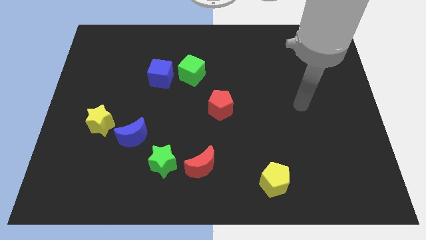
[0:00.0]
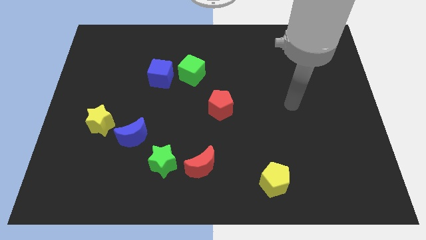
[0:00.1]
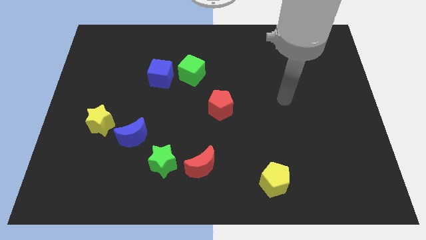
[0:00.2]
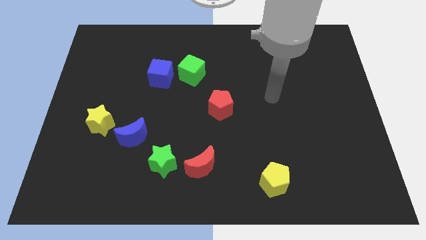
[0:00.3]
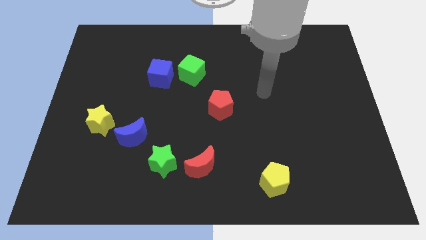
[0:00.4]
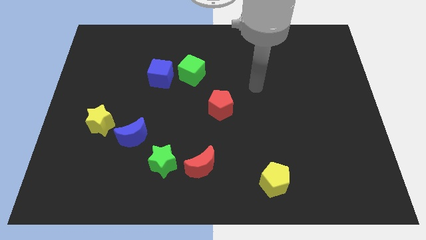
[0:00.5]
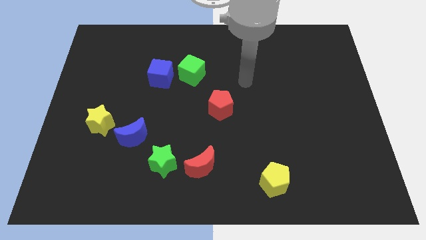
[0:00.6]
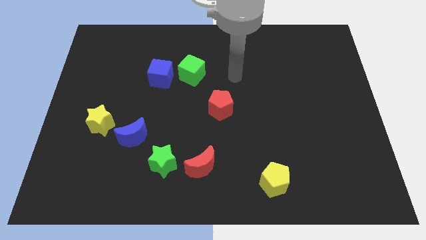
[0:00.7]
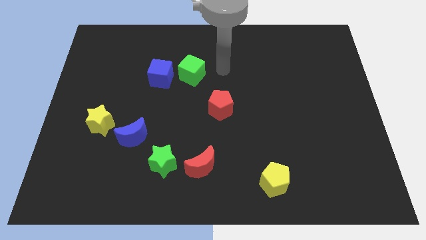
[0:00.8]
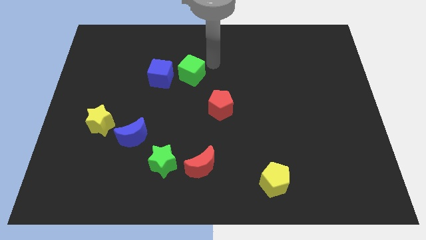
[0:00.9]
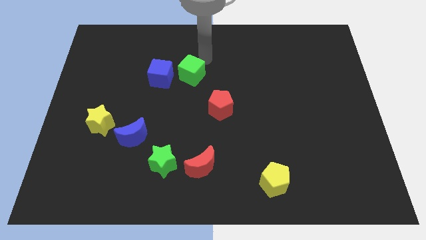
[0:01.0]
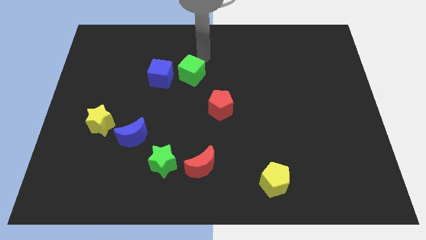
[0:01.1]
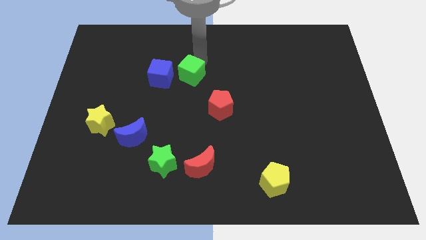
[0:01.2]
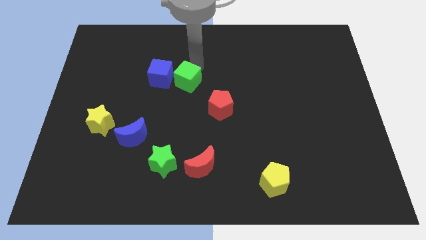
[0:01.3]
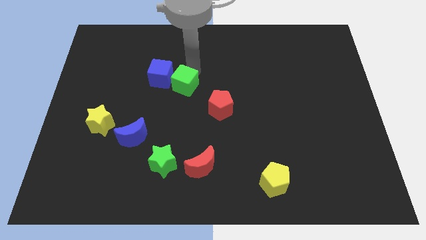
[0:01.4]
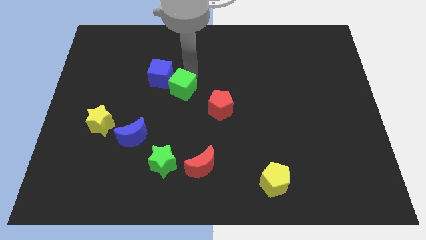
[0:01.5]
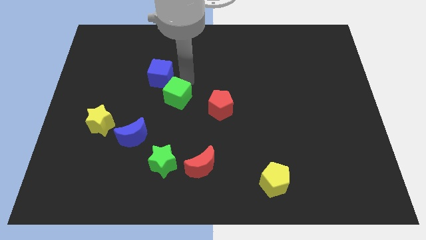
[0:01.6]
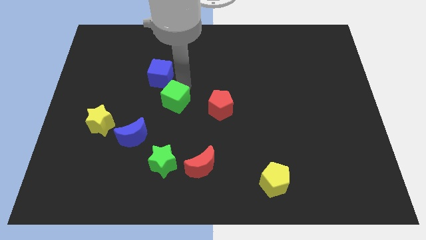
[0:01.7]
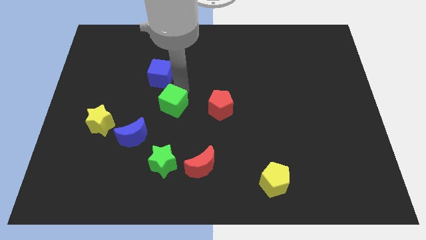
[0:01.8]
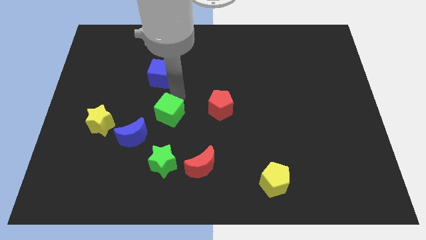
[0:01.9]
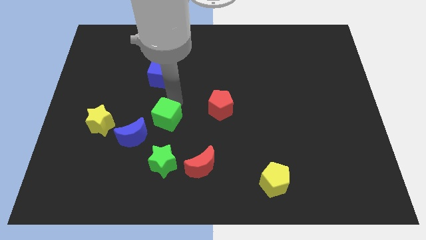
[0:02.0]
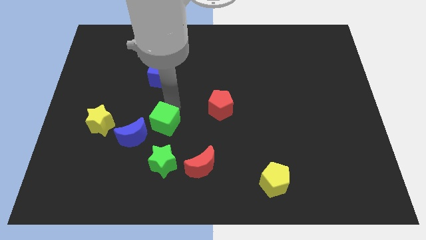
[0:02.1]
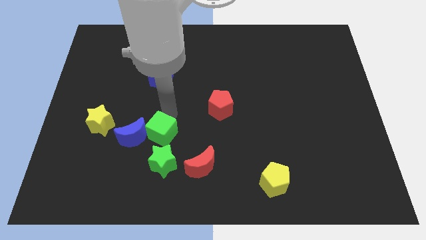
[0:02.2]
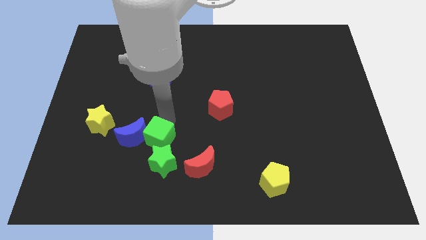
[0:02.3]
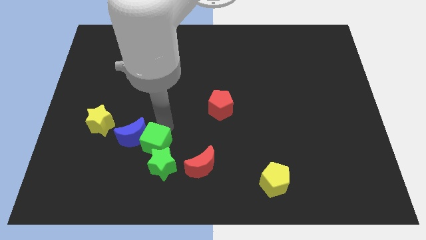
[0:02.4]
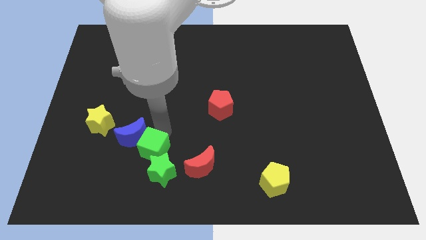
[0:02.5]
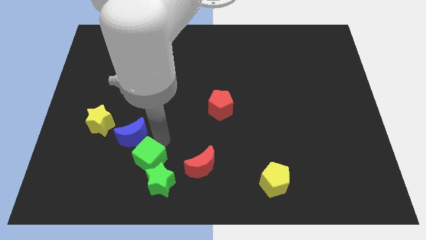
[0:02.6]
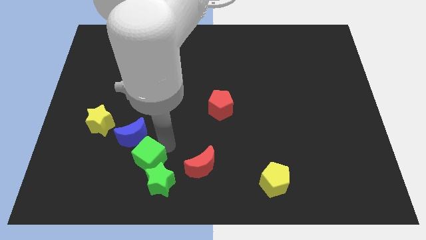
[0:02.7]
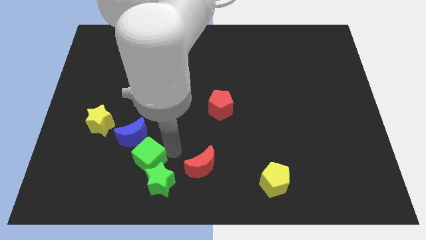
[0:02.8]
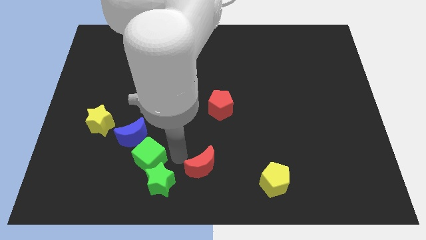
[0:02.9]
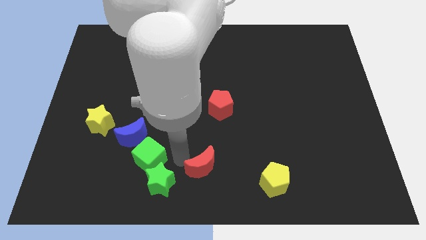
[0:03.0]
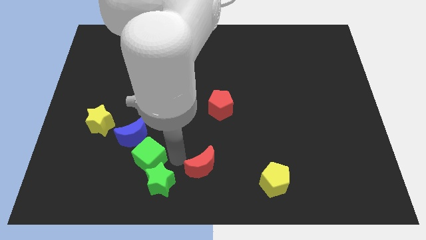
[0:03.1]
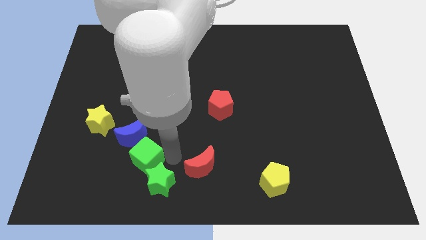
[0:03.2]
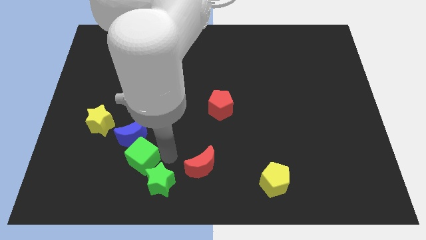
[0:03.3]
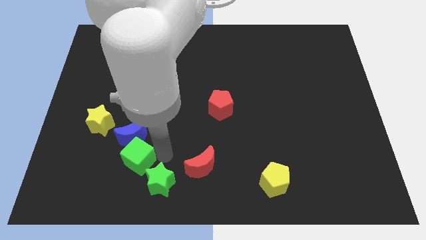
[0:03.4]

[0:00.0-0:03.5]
slide the green cube downwards and then to the left

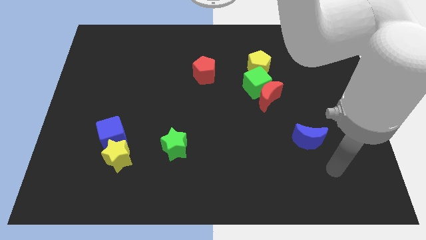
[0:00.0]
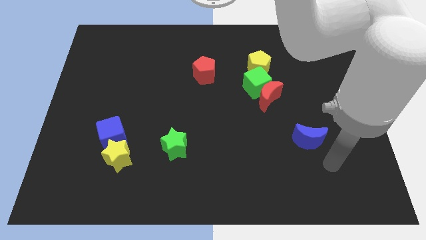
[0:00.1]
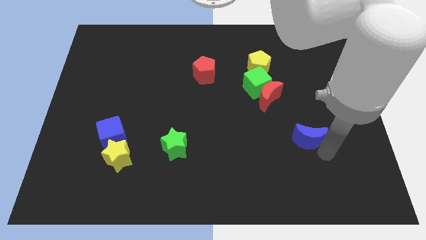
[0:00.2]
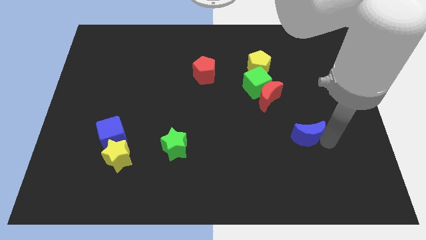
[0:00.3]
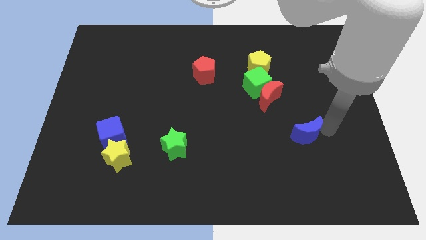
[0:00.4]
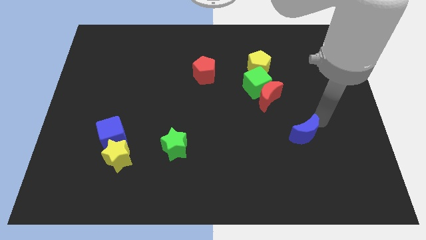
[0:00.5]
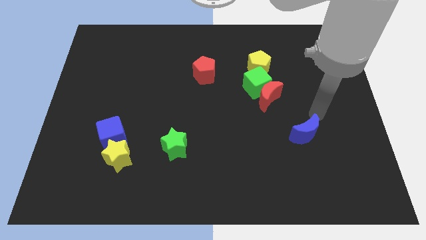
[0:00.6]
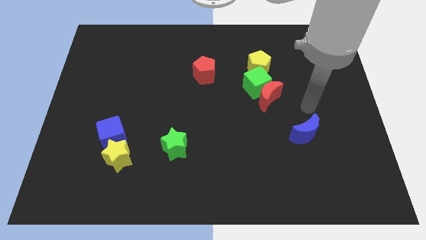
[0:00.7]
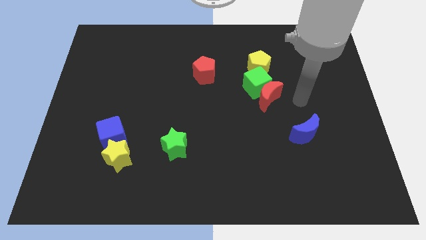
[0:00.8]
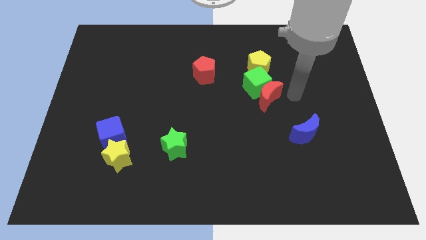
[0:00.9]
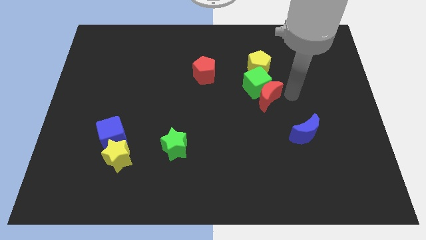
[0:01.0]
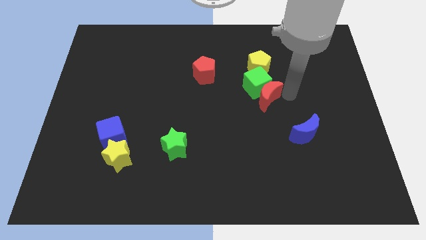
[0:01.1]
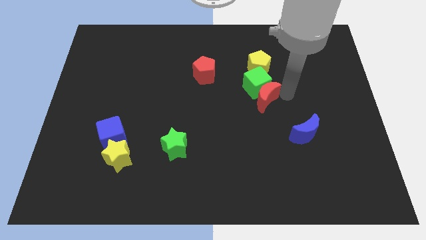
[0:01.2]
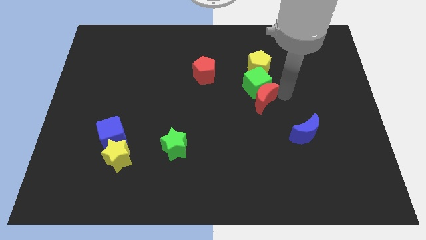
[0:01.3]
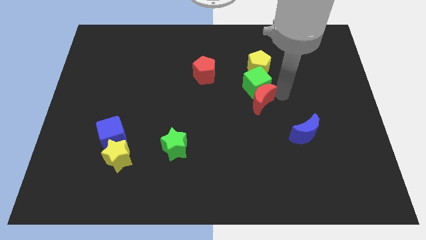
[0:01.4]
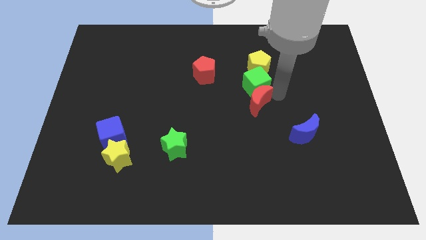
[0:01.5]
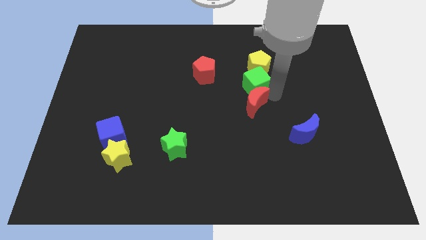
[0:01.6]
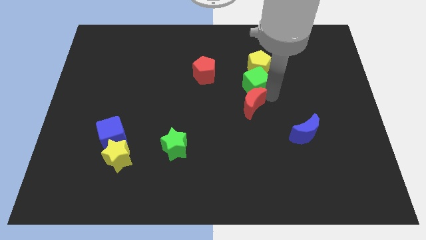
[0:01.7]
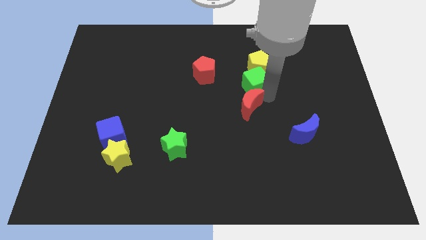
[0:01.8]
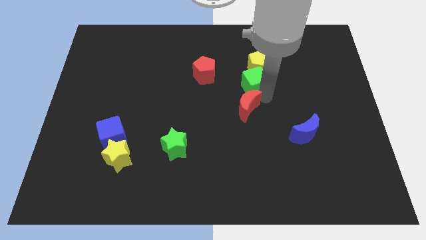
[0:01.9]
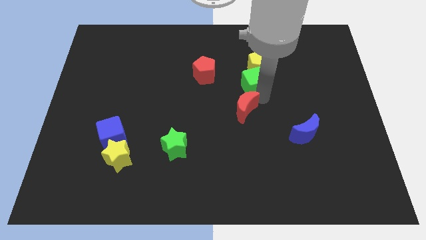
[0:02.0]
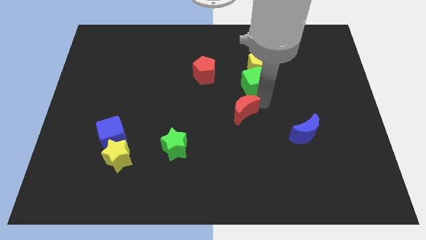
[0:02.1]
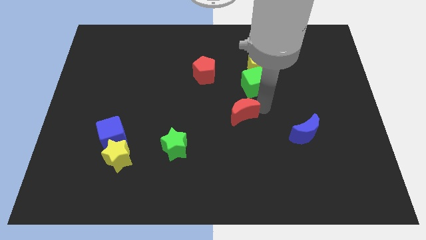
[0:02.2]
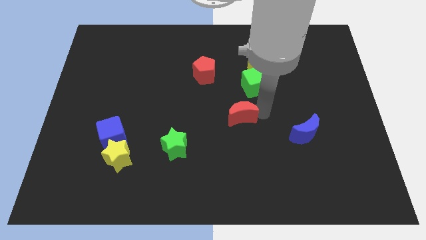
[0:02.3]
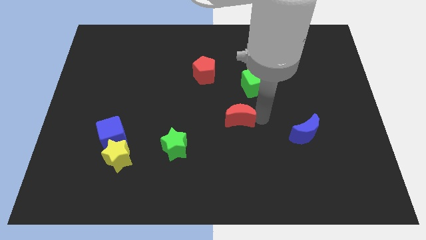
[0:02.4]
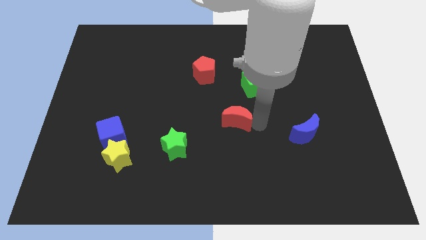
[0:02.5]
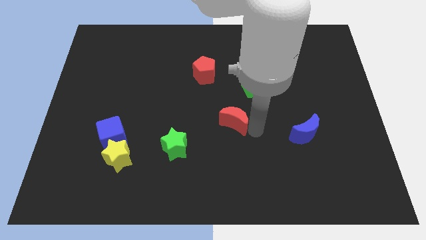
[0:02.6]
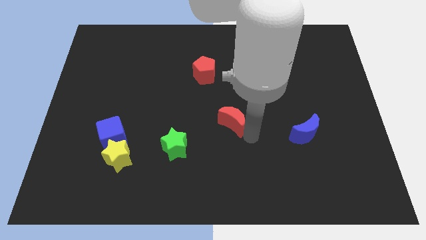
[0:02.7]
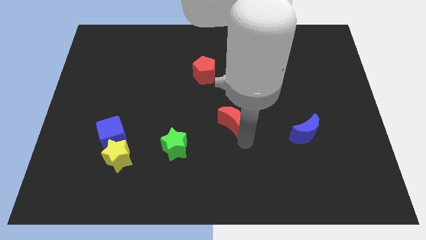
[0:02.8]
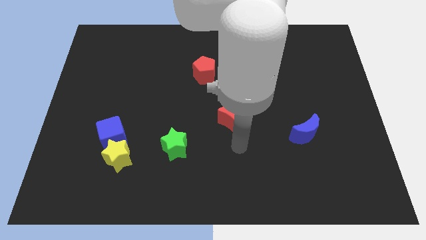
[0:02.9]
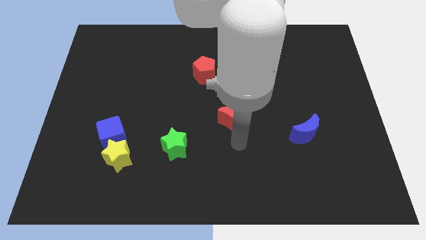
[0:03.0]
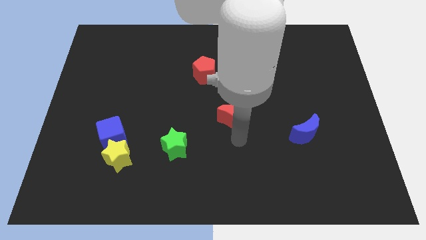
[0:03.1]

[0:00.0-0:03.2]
slide the red moon a little to the left

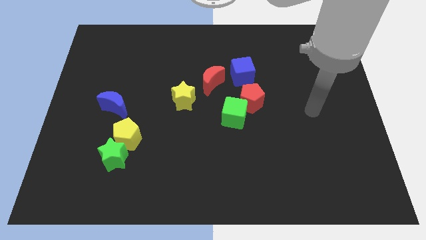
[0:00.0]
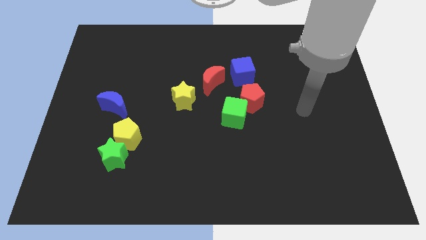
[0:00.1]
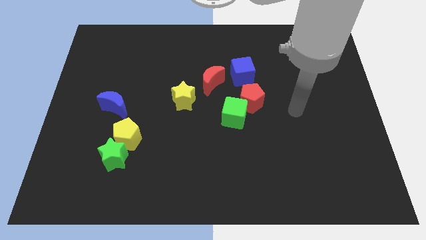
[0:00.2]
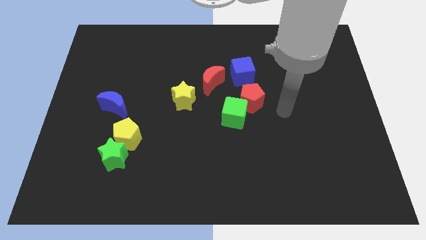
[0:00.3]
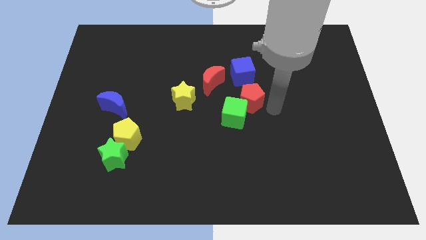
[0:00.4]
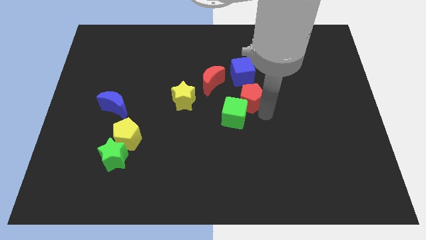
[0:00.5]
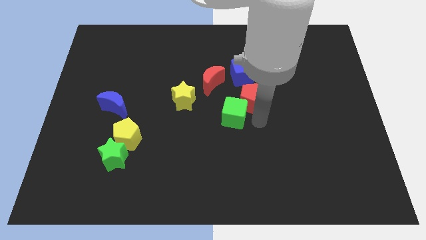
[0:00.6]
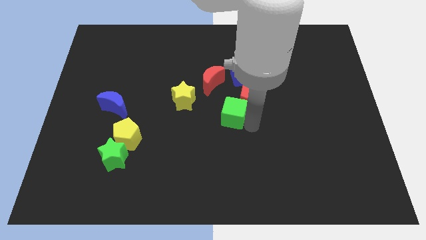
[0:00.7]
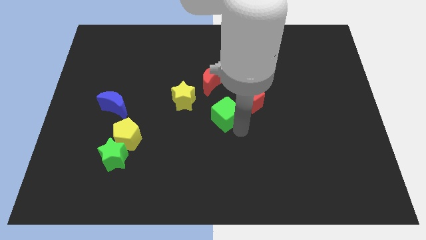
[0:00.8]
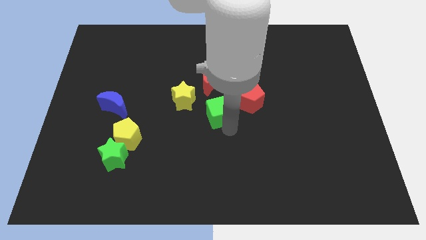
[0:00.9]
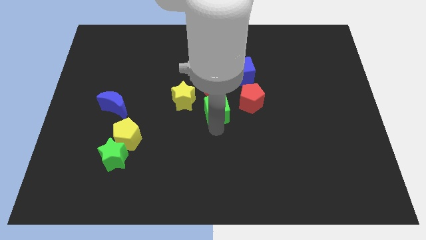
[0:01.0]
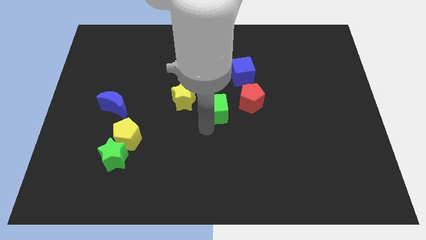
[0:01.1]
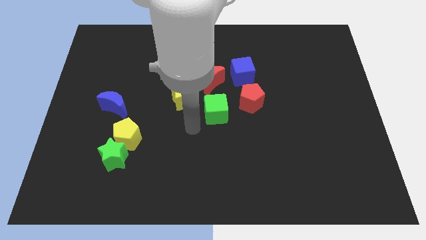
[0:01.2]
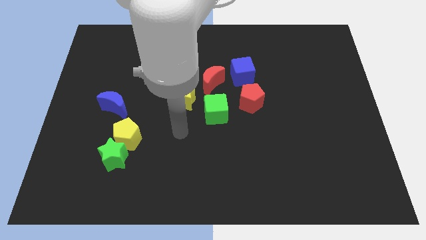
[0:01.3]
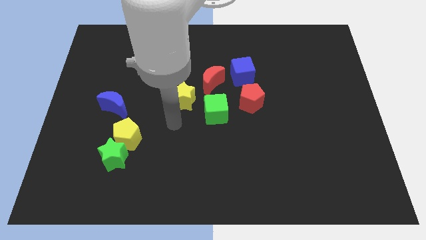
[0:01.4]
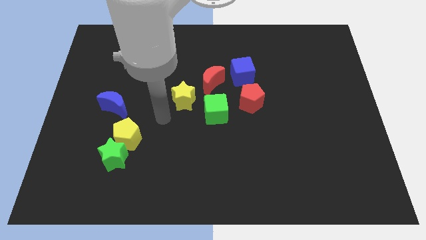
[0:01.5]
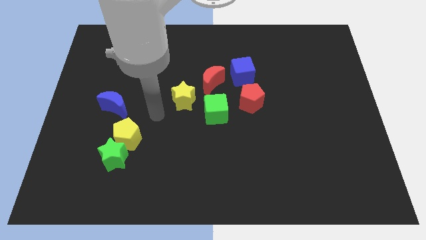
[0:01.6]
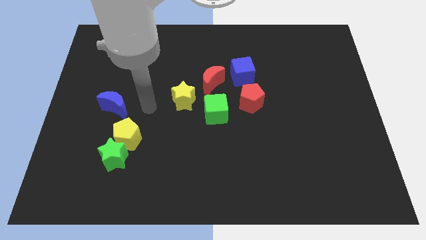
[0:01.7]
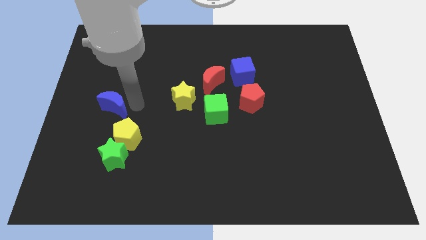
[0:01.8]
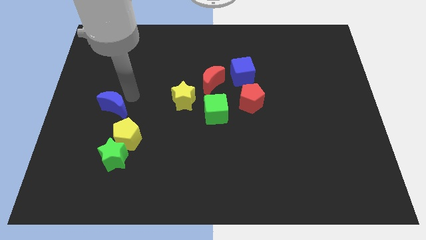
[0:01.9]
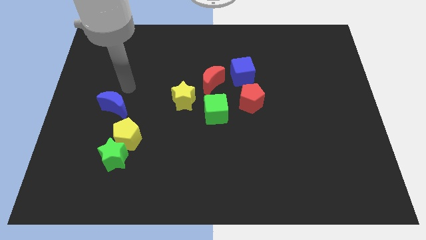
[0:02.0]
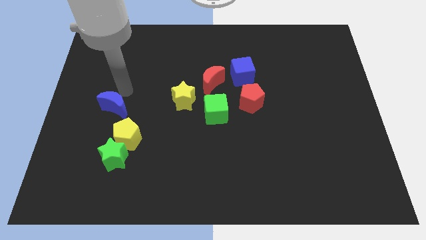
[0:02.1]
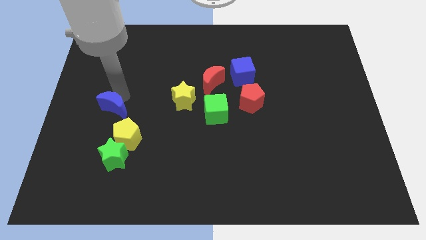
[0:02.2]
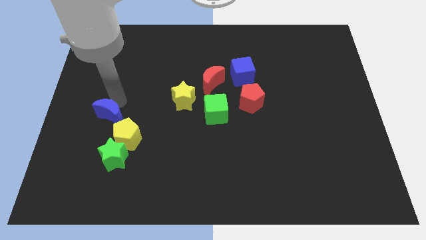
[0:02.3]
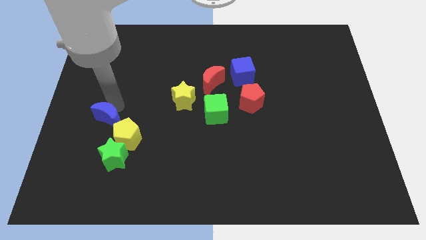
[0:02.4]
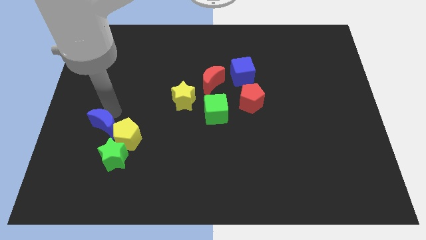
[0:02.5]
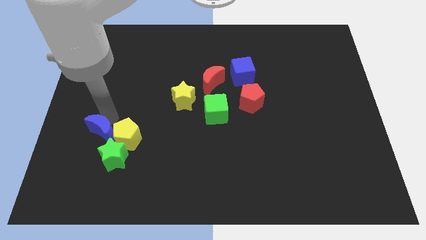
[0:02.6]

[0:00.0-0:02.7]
slightly push the blue moon downwards
